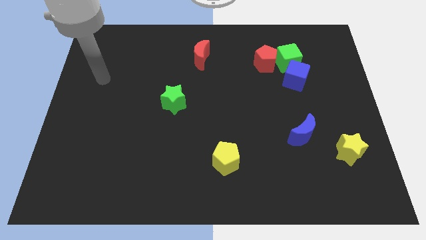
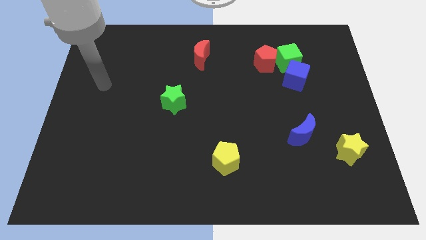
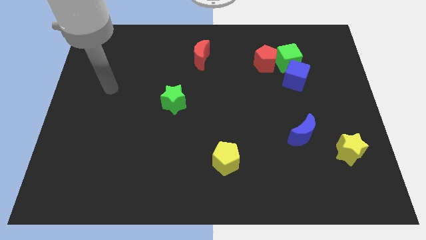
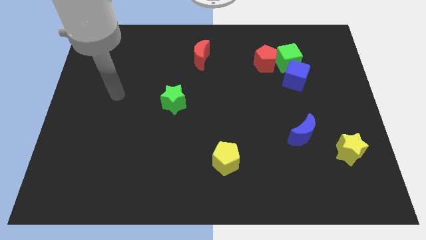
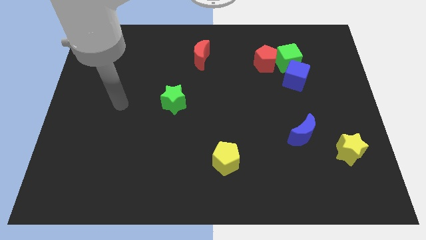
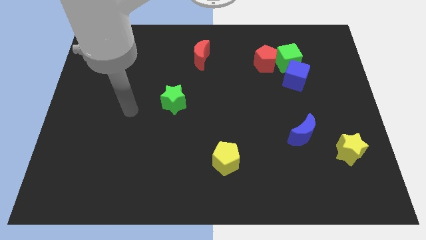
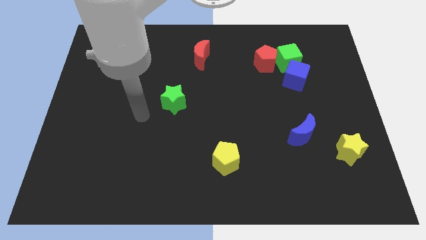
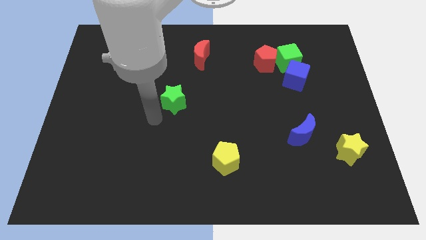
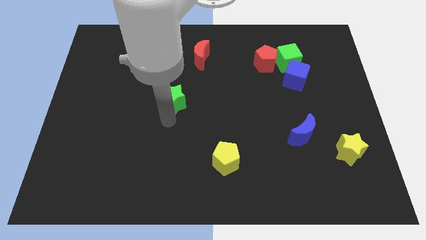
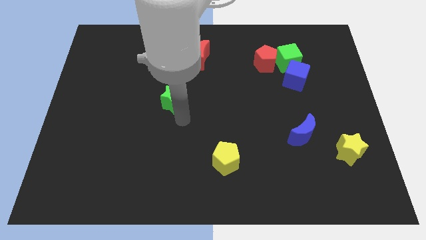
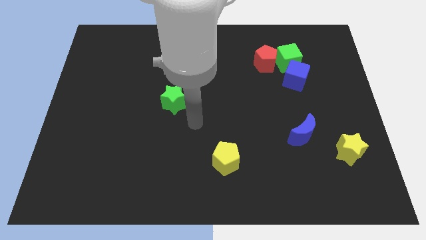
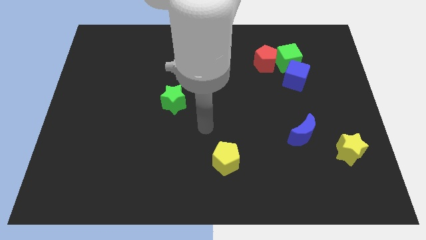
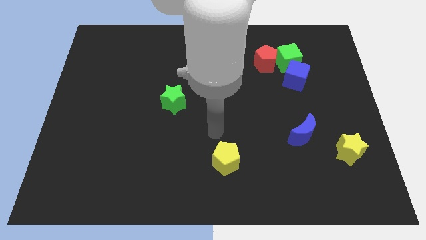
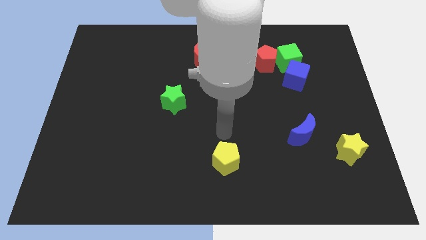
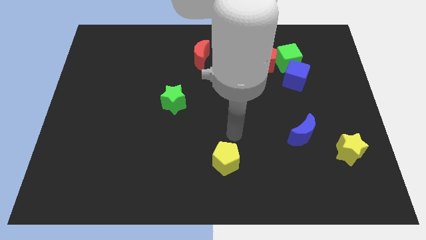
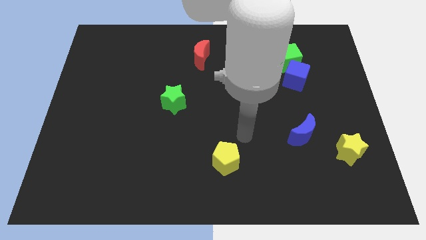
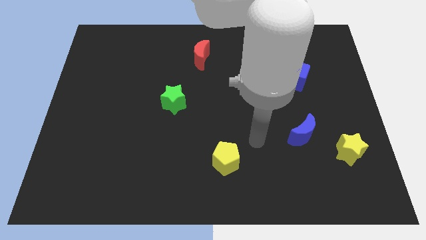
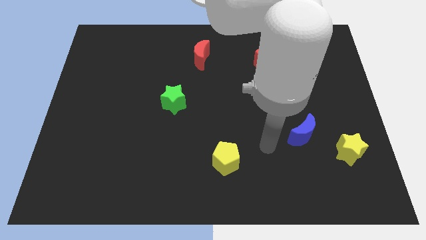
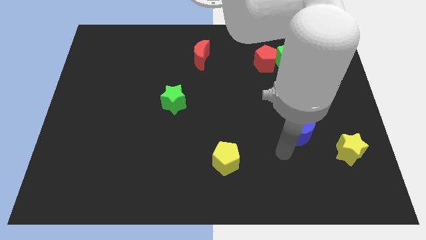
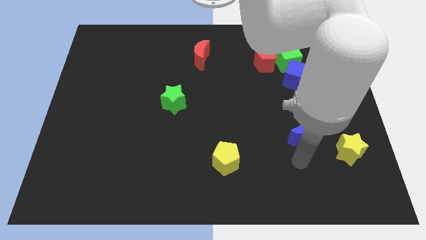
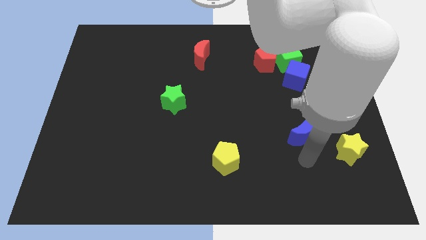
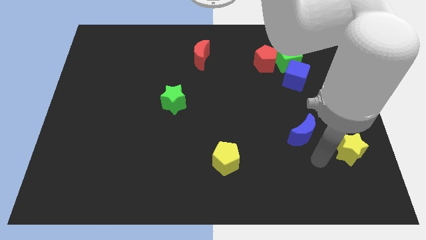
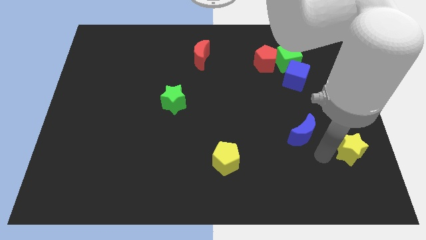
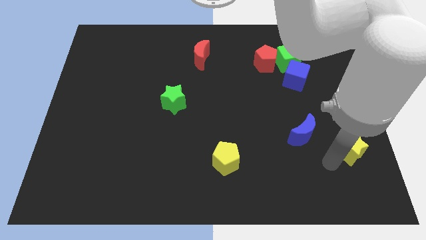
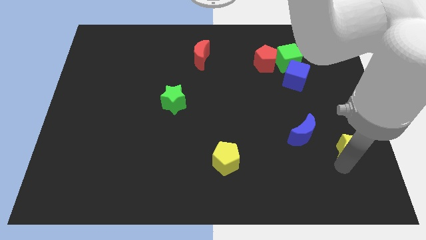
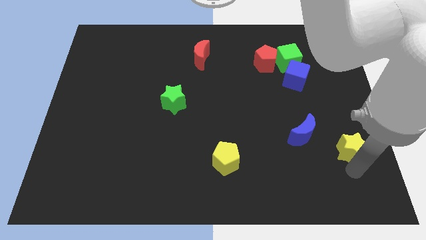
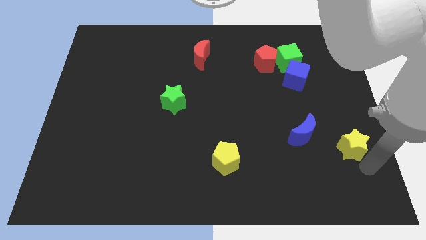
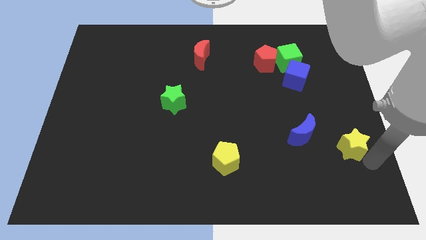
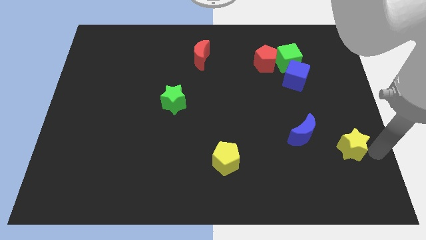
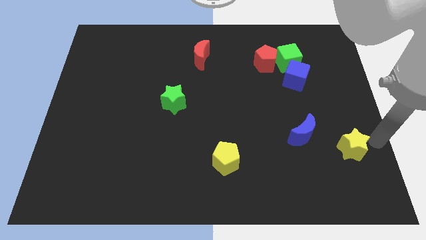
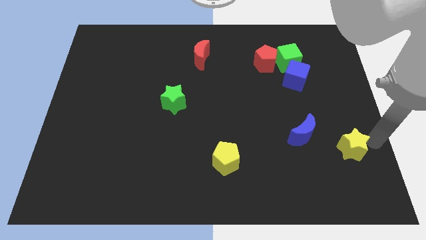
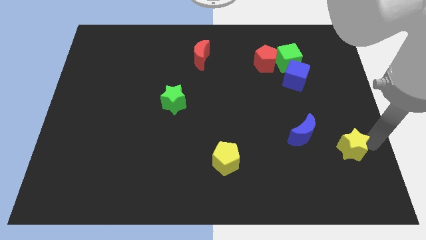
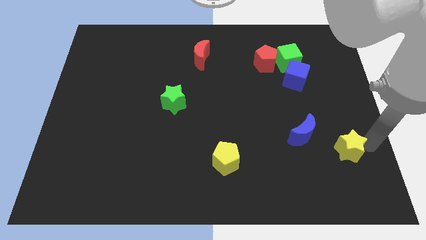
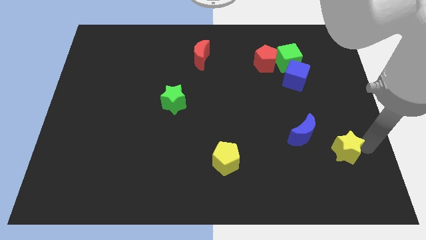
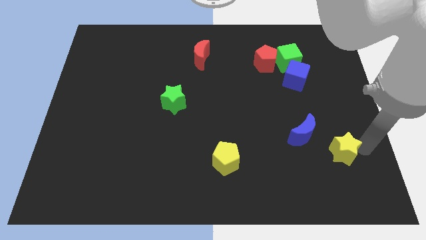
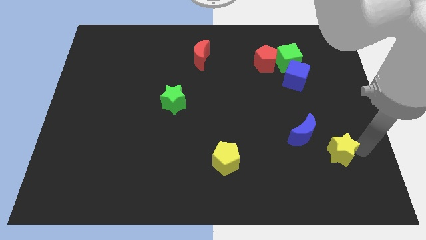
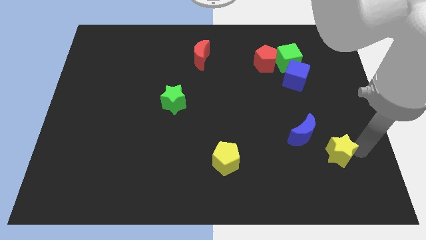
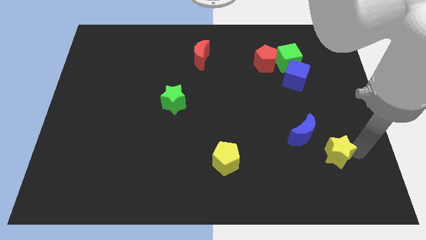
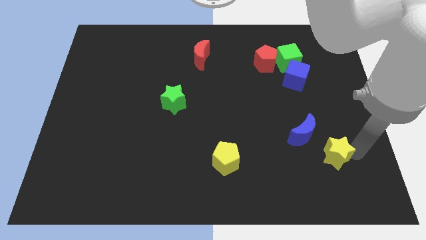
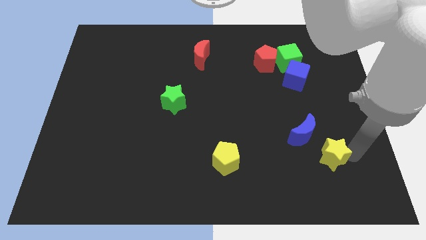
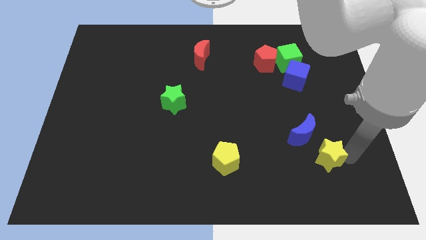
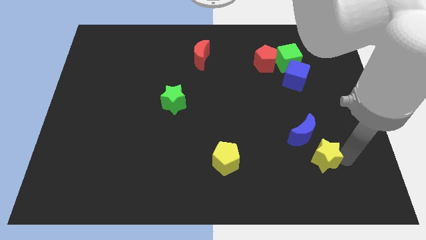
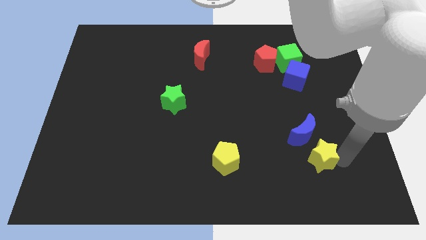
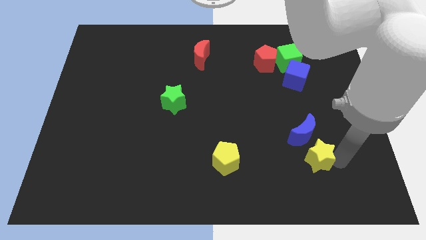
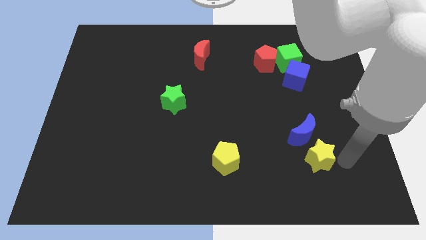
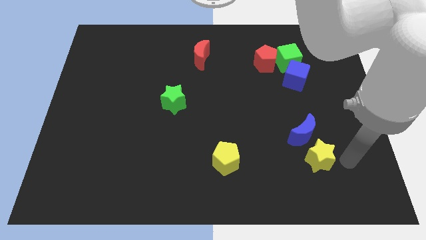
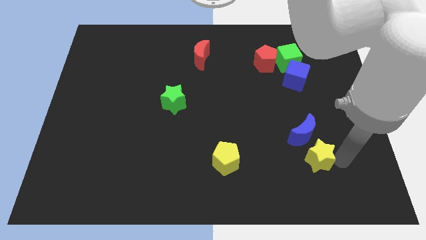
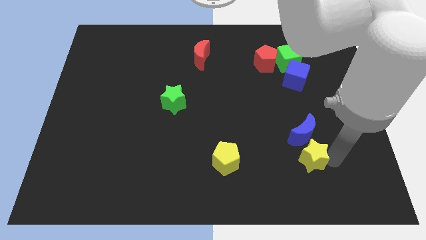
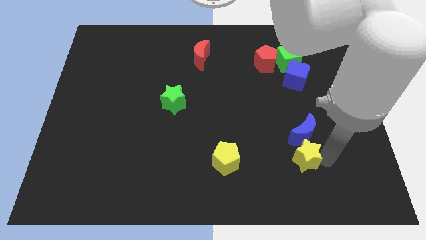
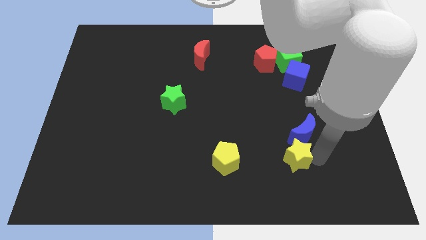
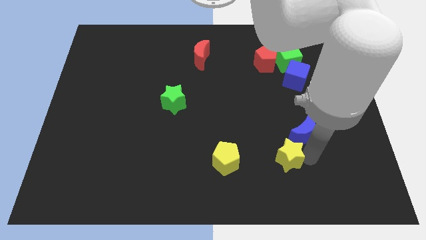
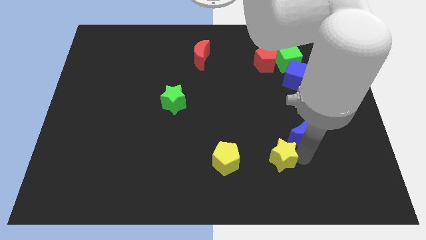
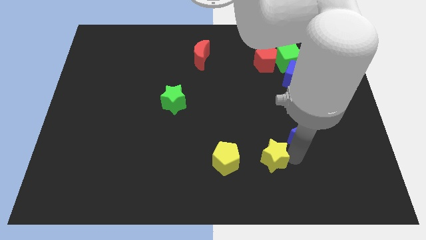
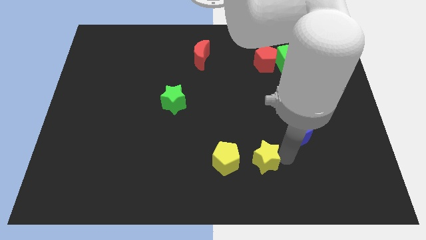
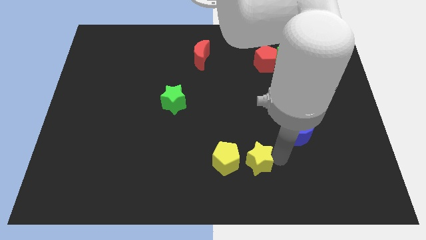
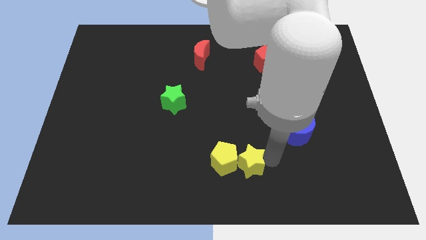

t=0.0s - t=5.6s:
slide the yellow star towards the yellow pentagon

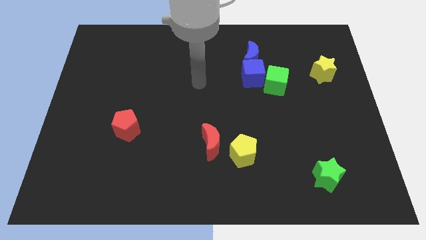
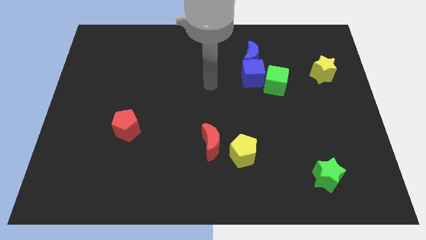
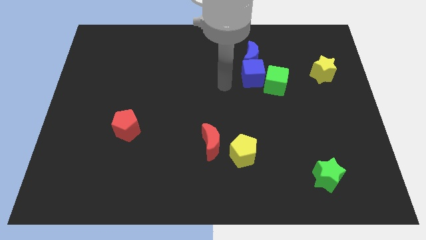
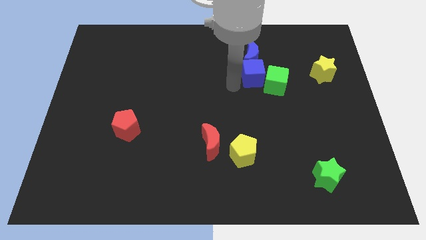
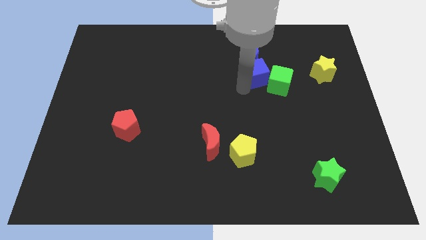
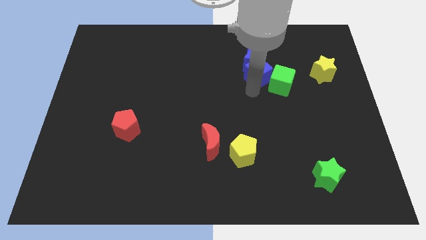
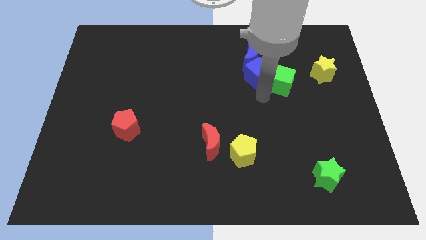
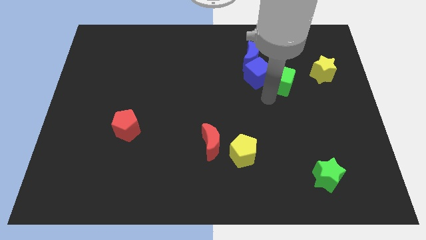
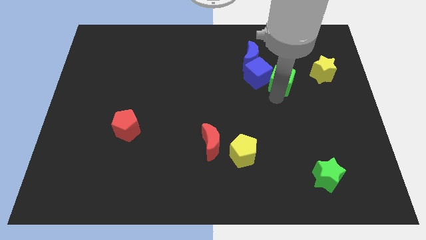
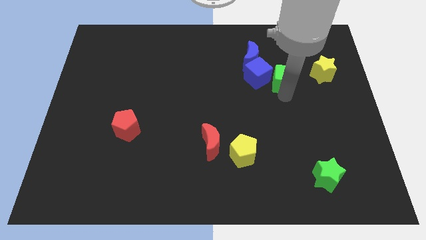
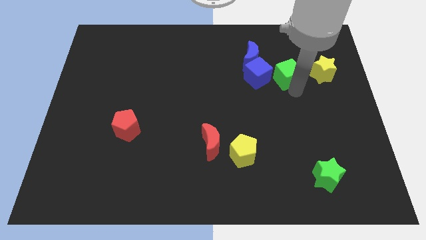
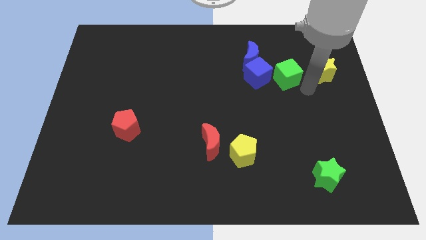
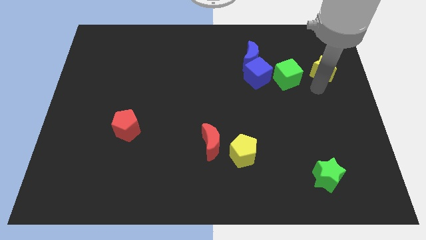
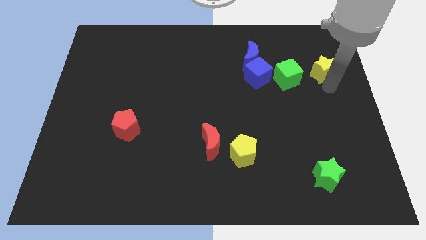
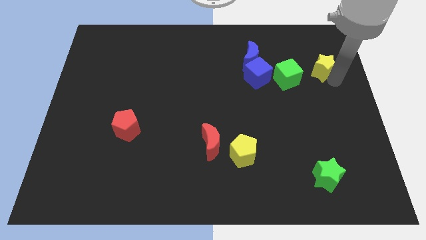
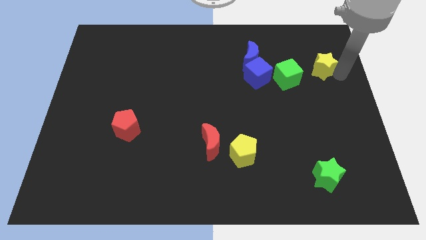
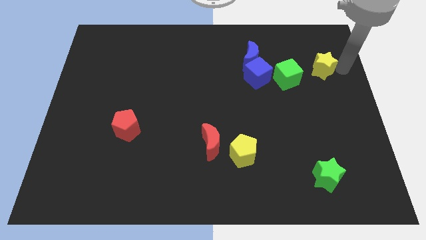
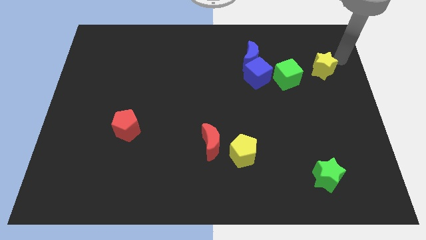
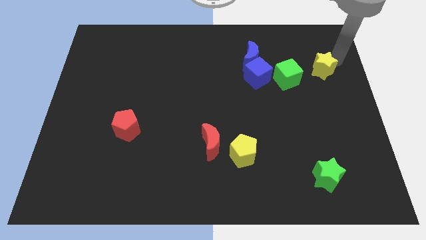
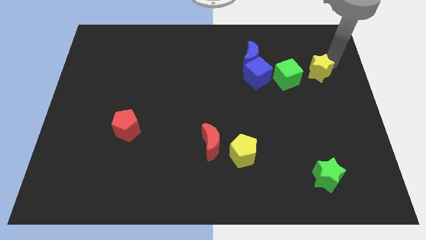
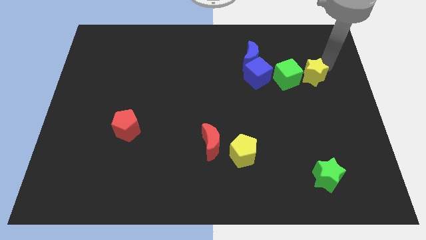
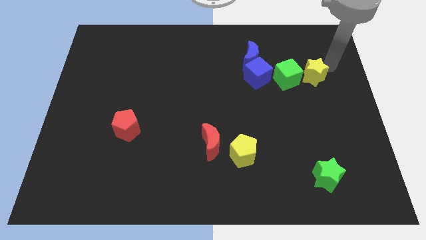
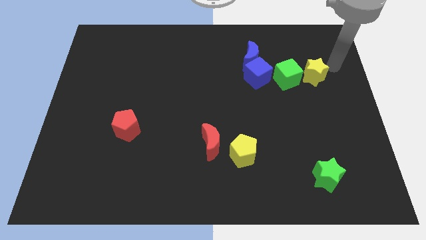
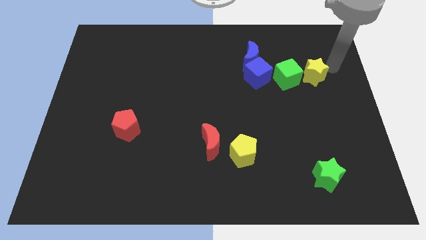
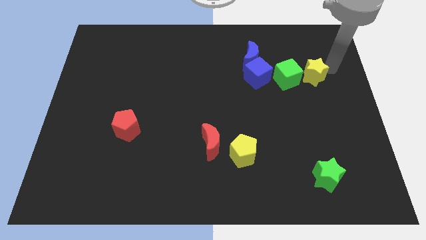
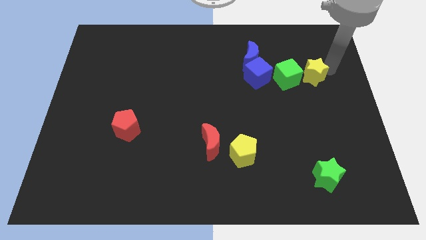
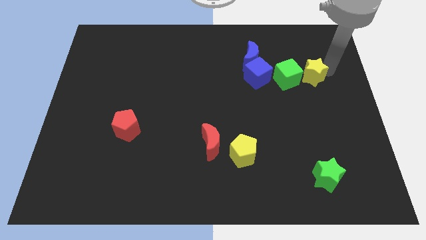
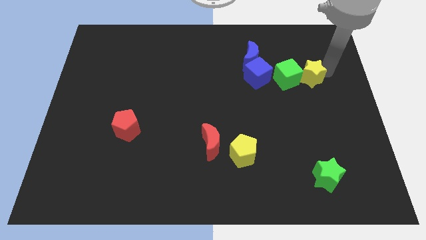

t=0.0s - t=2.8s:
move the yellow star to the green cube
